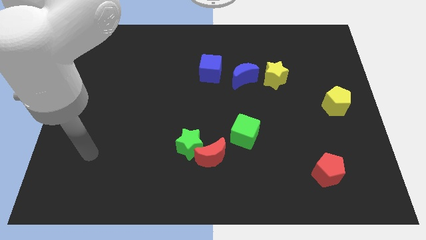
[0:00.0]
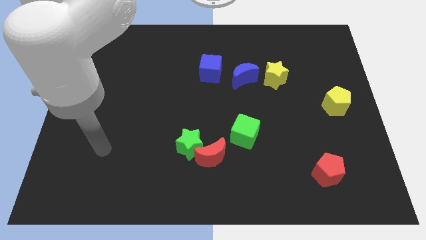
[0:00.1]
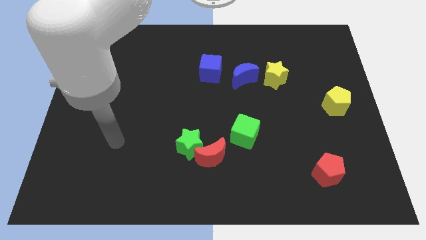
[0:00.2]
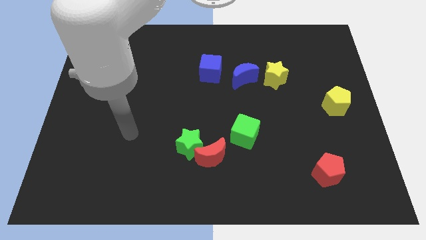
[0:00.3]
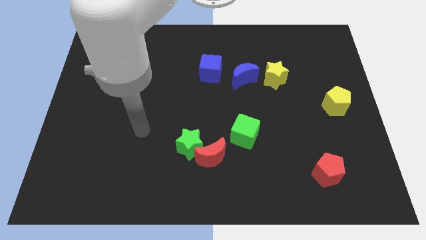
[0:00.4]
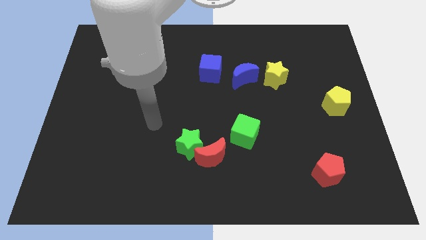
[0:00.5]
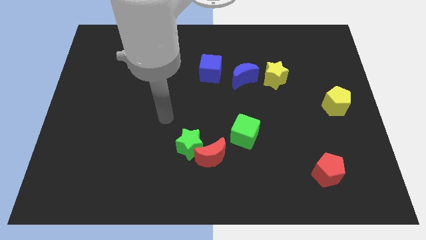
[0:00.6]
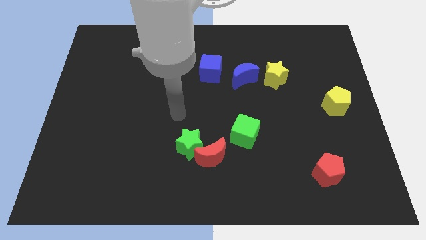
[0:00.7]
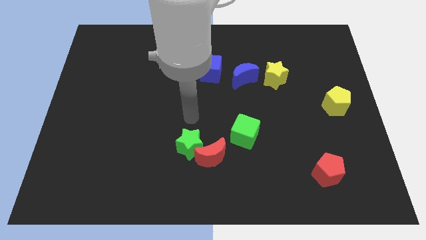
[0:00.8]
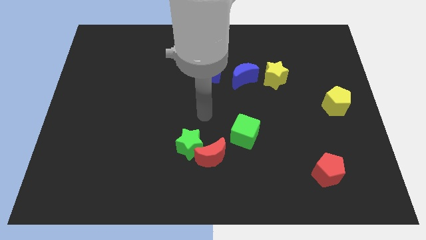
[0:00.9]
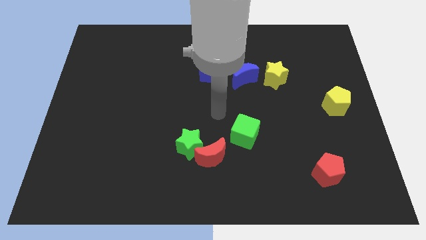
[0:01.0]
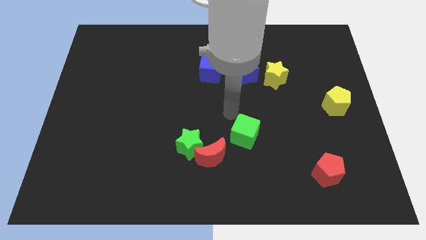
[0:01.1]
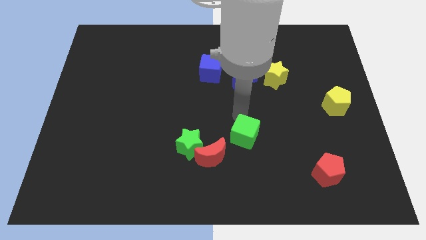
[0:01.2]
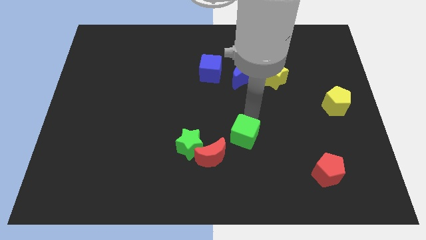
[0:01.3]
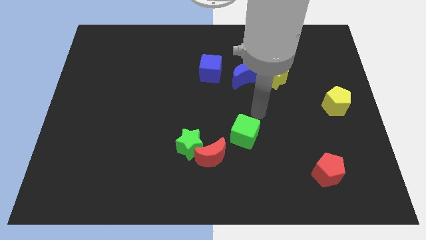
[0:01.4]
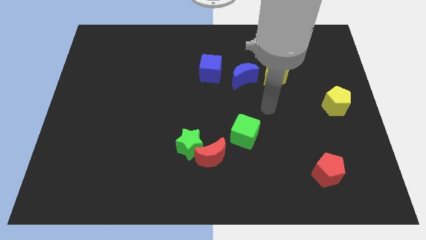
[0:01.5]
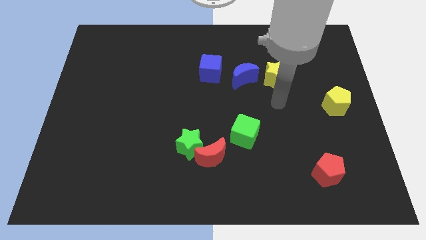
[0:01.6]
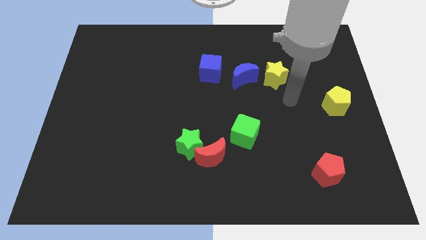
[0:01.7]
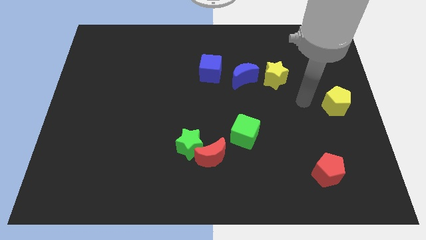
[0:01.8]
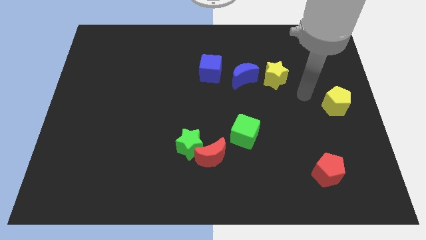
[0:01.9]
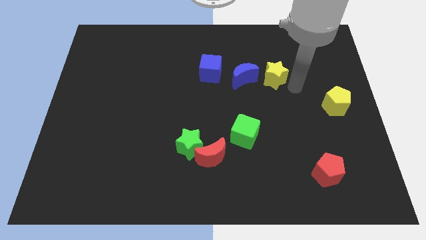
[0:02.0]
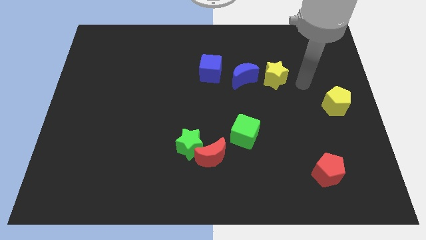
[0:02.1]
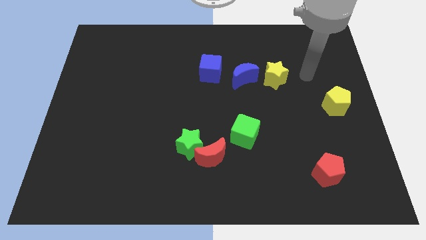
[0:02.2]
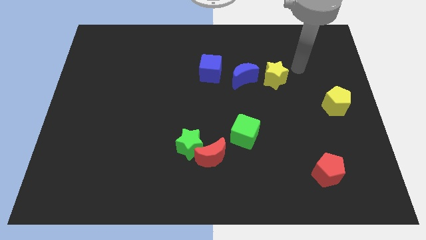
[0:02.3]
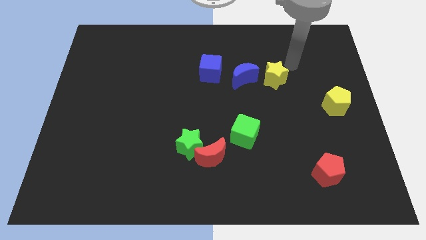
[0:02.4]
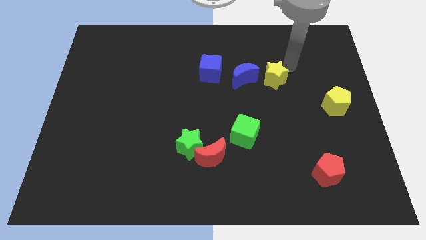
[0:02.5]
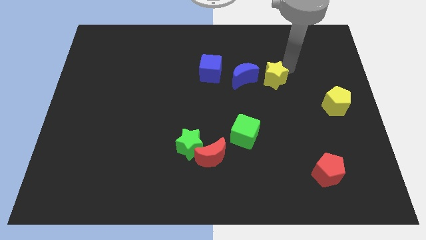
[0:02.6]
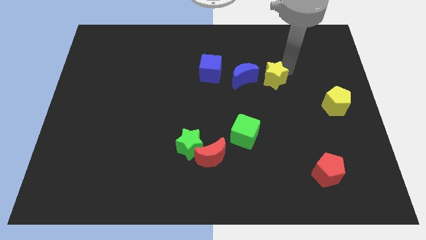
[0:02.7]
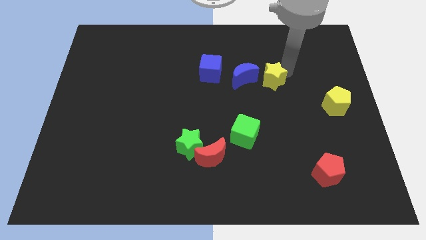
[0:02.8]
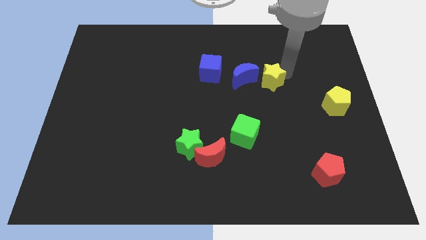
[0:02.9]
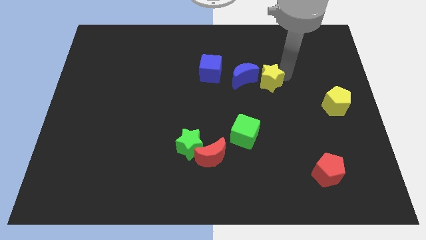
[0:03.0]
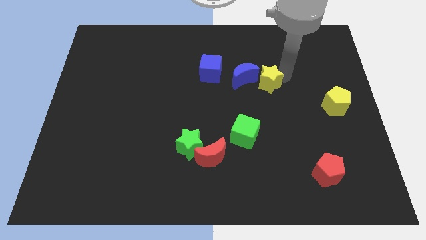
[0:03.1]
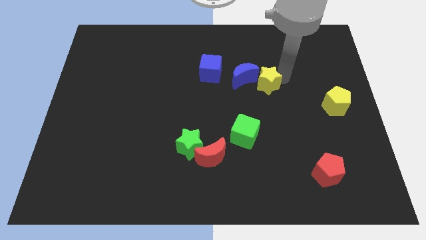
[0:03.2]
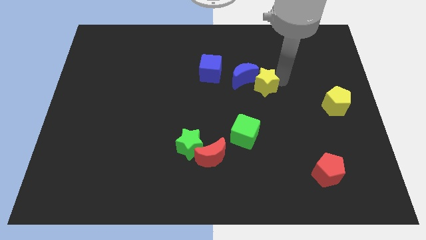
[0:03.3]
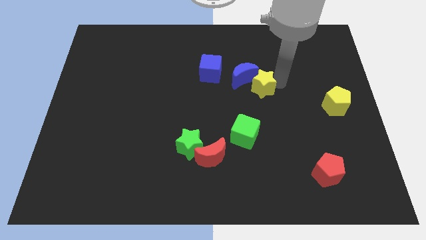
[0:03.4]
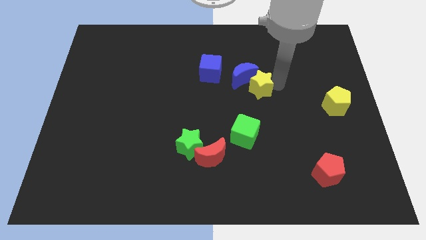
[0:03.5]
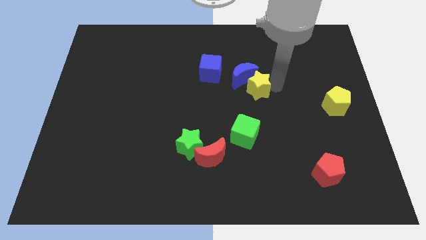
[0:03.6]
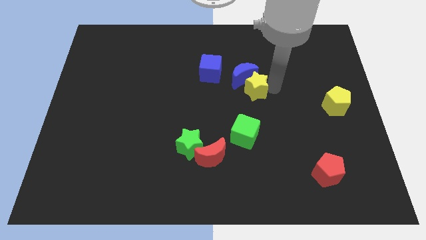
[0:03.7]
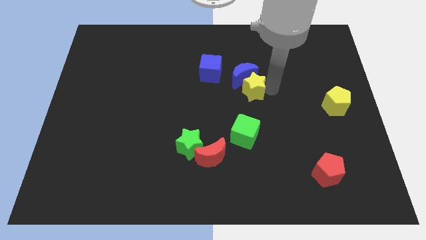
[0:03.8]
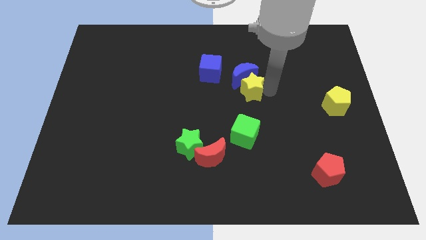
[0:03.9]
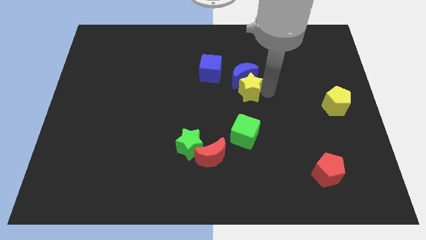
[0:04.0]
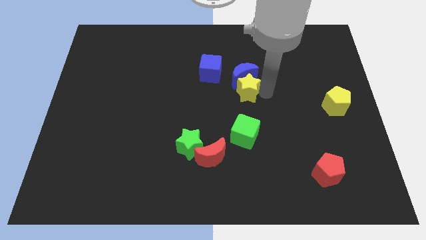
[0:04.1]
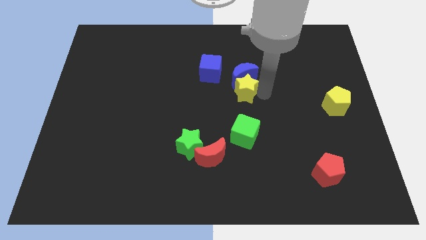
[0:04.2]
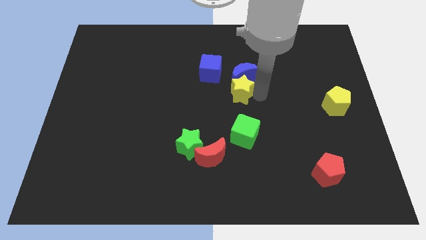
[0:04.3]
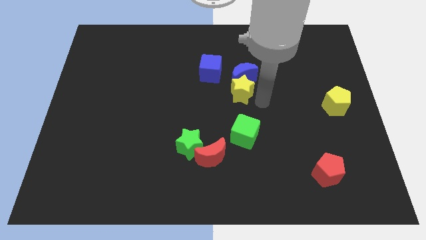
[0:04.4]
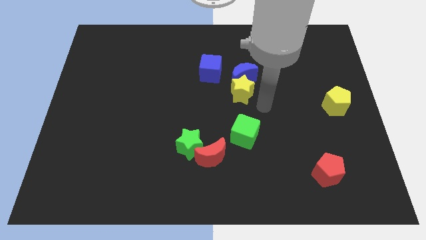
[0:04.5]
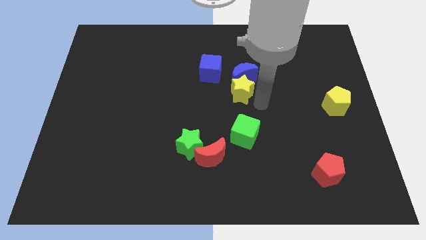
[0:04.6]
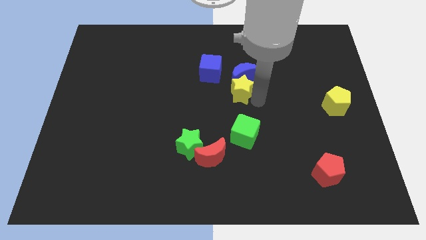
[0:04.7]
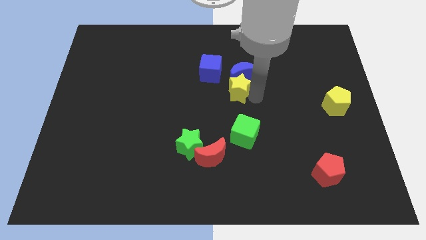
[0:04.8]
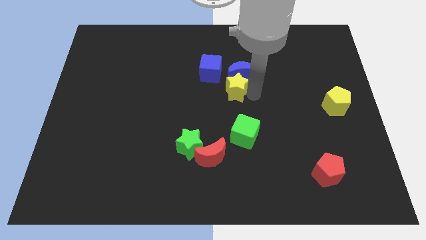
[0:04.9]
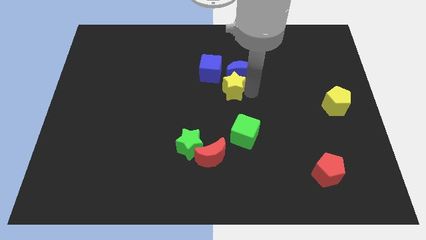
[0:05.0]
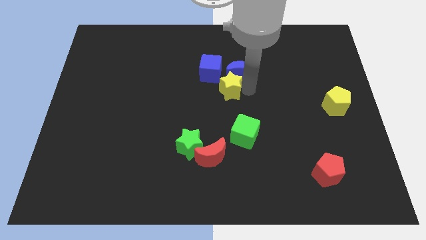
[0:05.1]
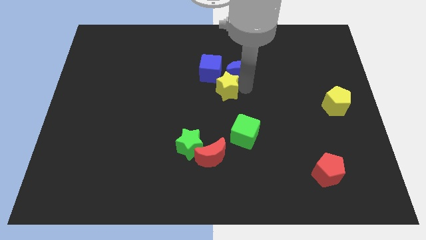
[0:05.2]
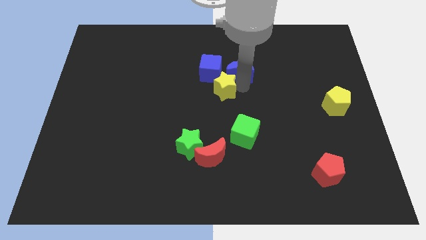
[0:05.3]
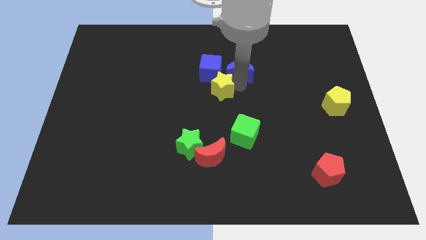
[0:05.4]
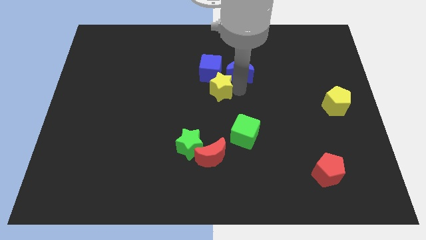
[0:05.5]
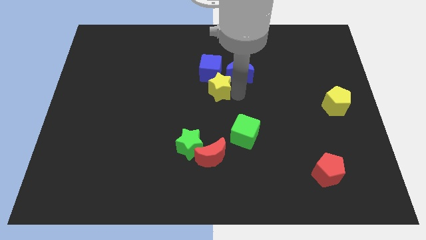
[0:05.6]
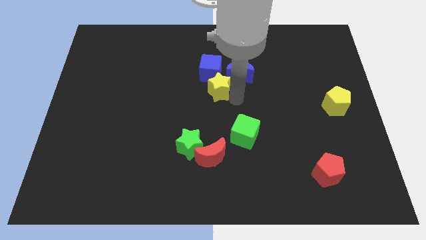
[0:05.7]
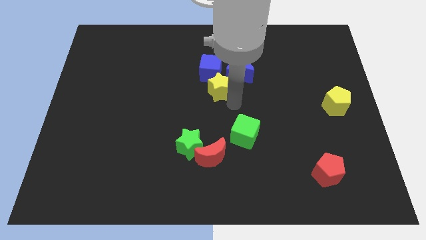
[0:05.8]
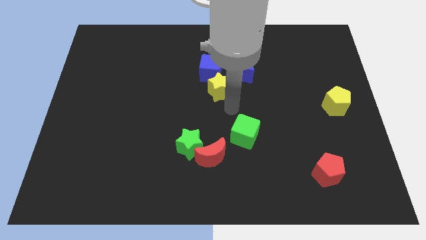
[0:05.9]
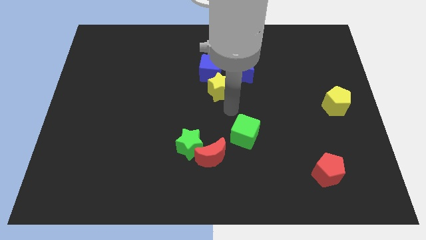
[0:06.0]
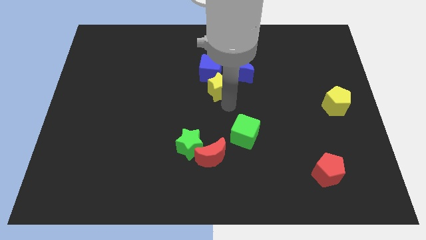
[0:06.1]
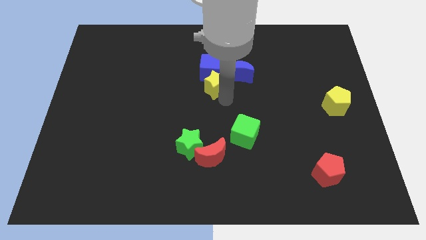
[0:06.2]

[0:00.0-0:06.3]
move the yellow star close to the blue cube

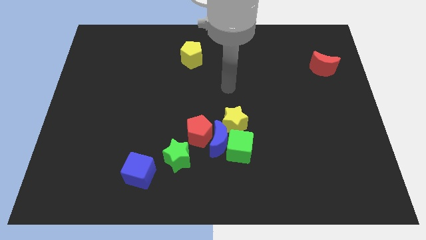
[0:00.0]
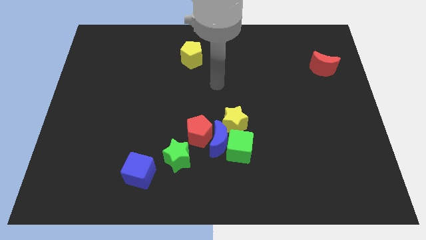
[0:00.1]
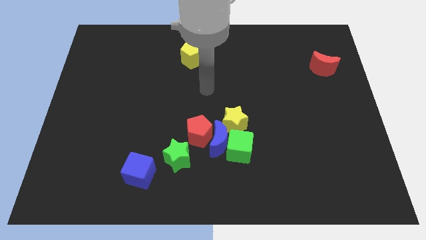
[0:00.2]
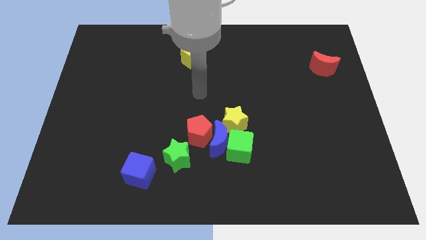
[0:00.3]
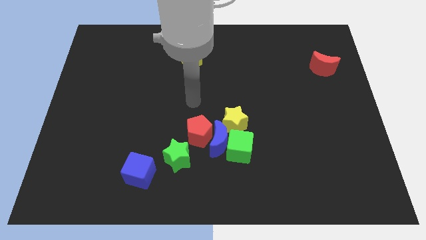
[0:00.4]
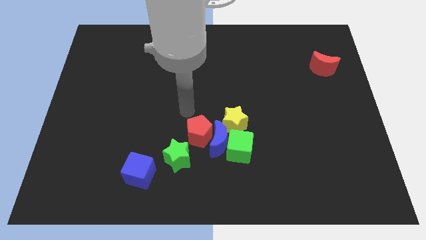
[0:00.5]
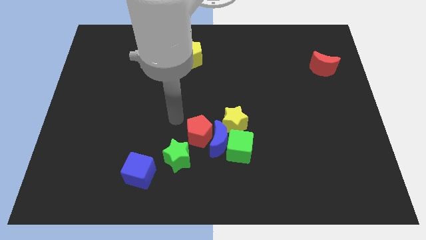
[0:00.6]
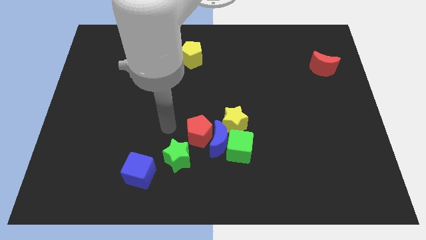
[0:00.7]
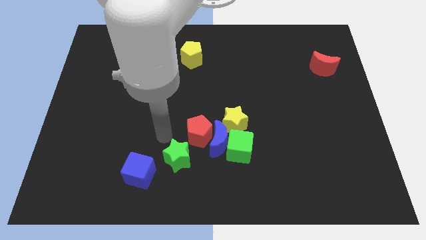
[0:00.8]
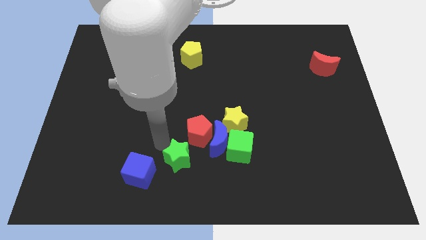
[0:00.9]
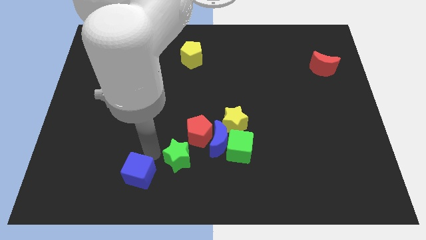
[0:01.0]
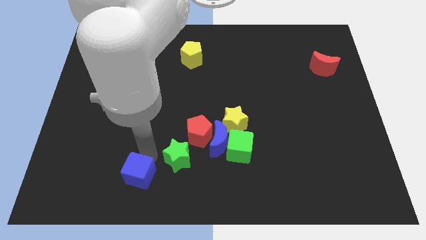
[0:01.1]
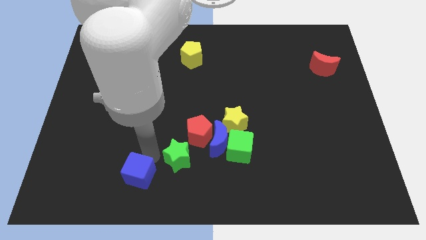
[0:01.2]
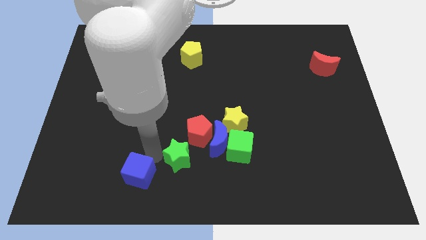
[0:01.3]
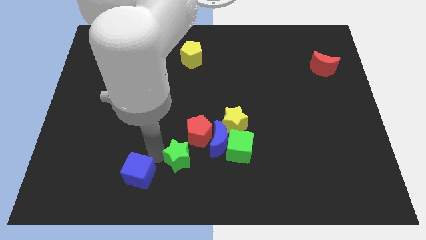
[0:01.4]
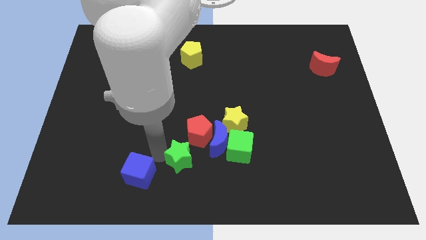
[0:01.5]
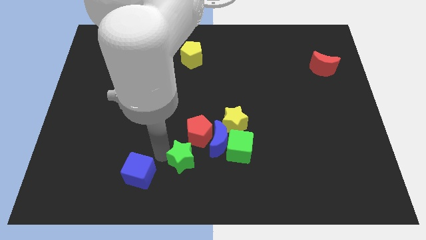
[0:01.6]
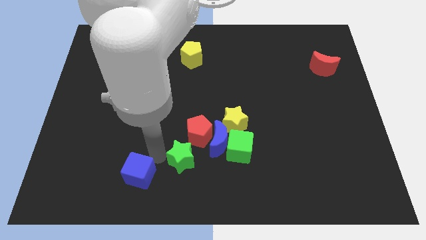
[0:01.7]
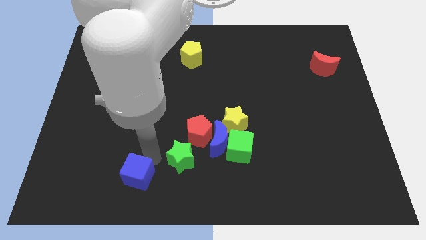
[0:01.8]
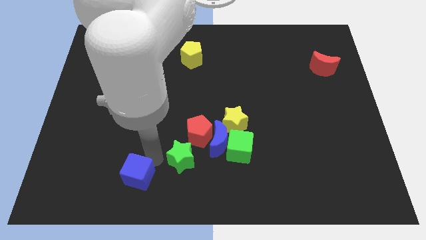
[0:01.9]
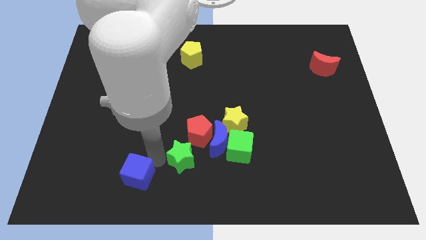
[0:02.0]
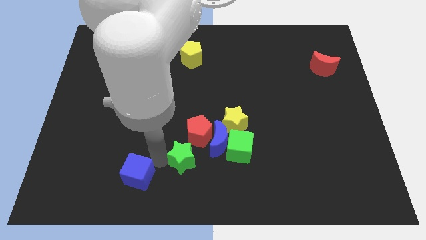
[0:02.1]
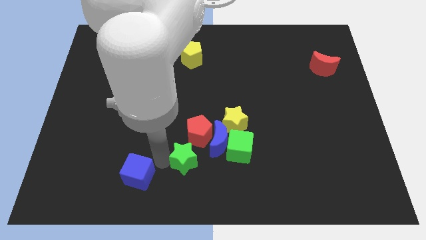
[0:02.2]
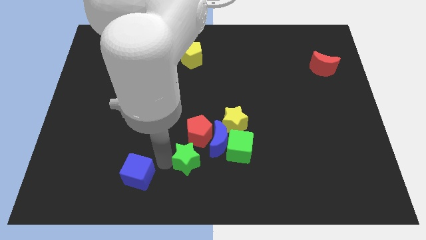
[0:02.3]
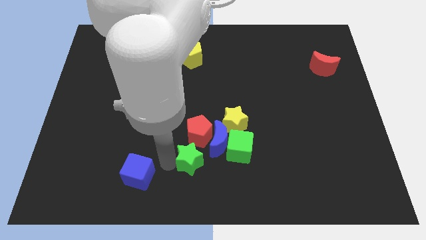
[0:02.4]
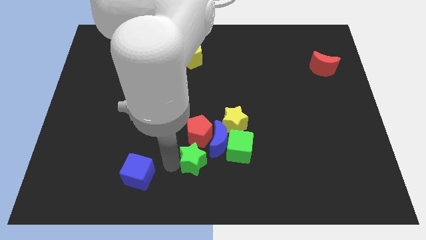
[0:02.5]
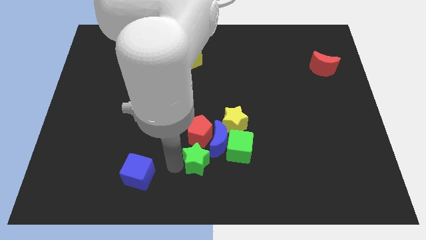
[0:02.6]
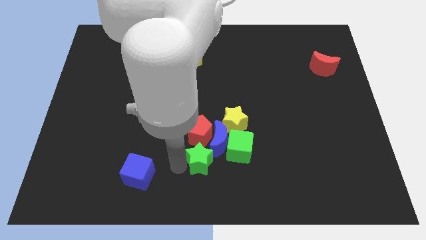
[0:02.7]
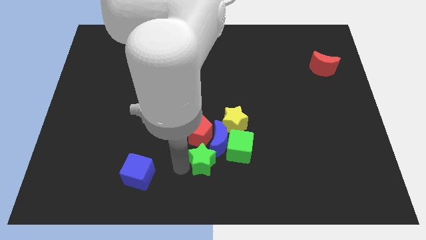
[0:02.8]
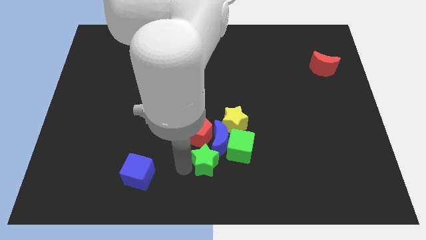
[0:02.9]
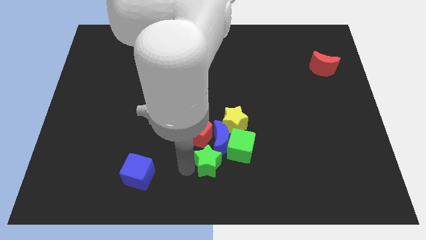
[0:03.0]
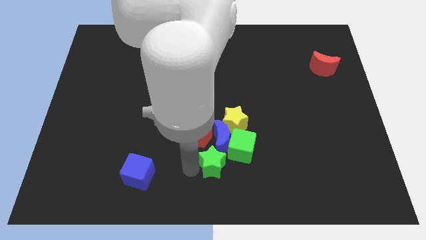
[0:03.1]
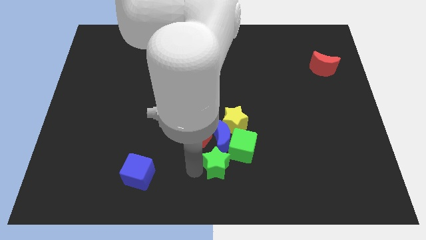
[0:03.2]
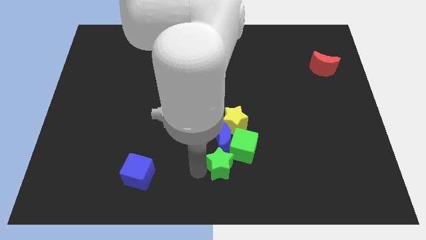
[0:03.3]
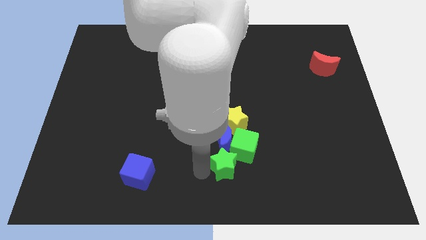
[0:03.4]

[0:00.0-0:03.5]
move the green star to the green cube
